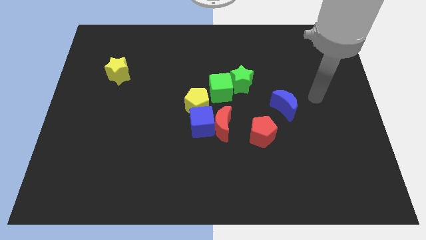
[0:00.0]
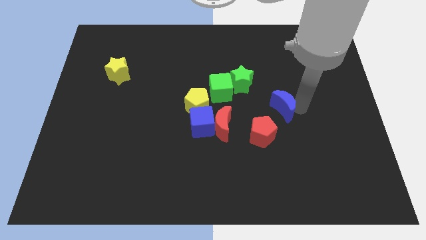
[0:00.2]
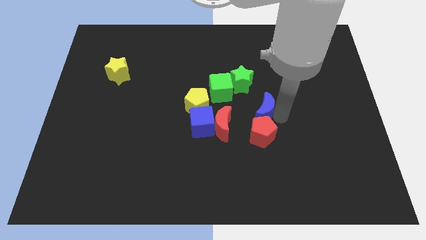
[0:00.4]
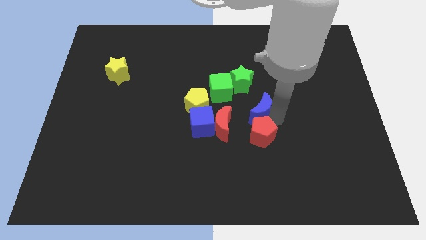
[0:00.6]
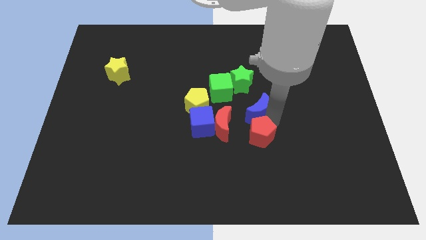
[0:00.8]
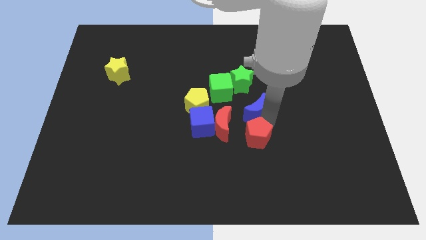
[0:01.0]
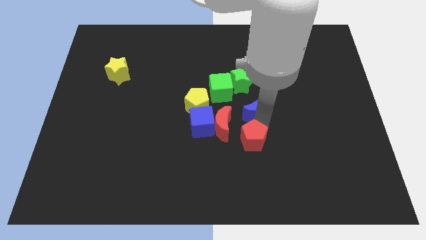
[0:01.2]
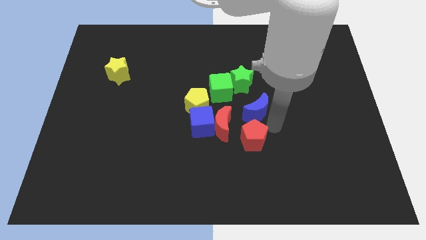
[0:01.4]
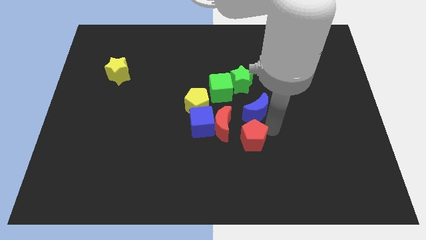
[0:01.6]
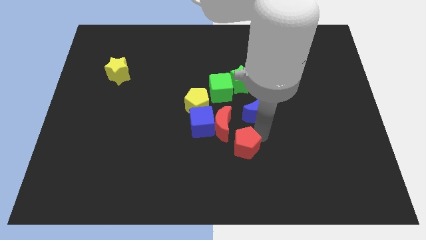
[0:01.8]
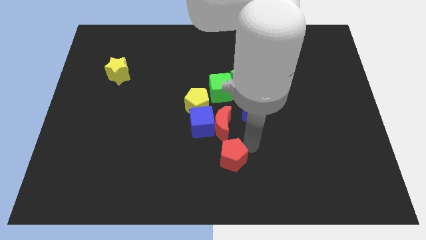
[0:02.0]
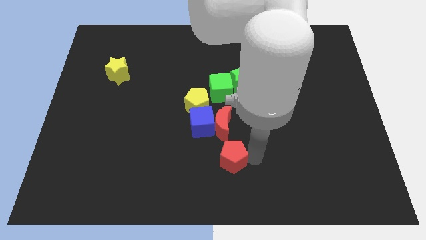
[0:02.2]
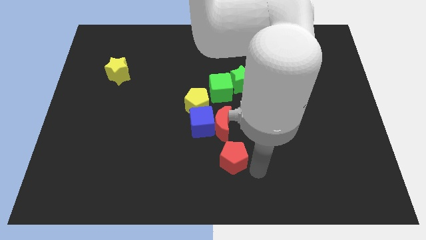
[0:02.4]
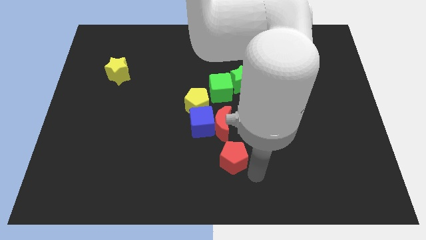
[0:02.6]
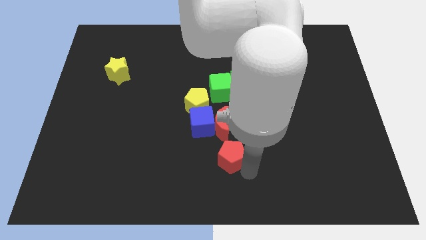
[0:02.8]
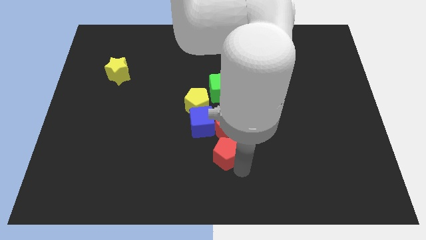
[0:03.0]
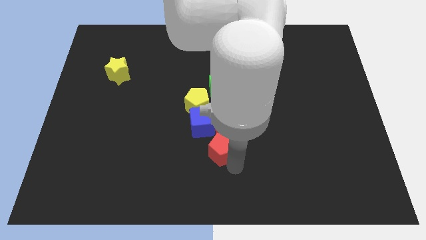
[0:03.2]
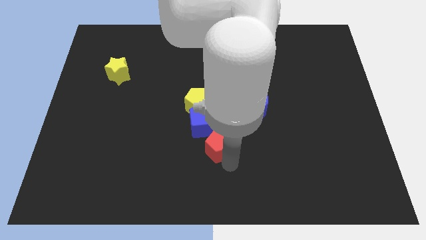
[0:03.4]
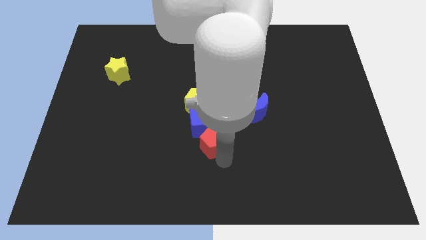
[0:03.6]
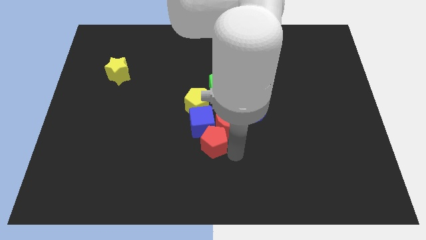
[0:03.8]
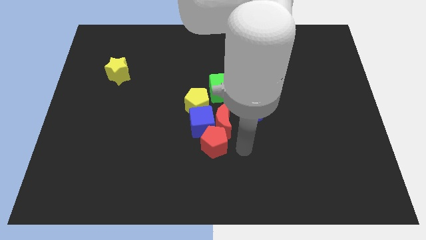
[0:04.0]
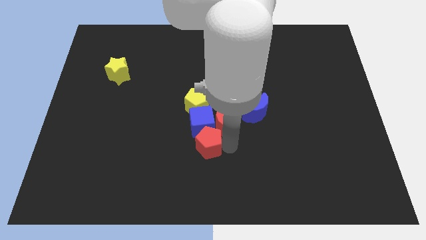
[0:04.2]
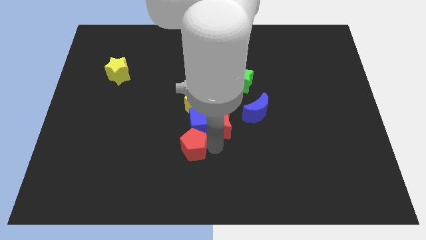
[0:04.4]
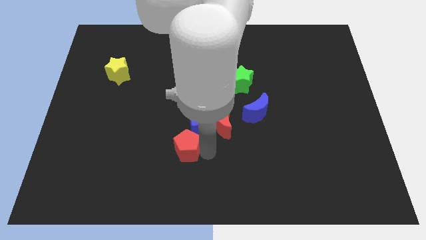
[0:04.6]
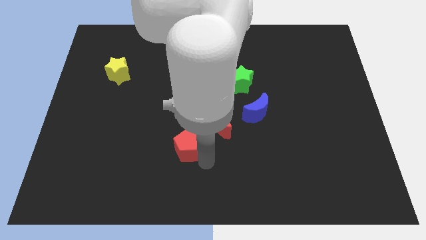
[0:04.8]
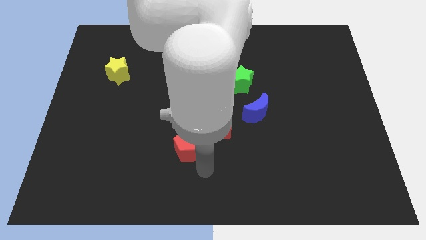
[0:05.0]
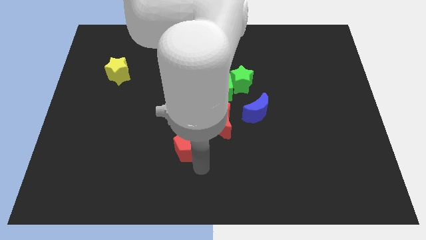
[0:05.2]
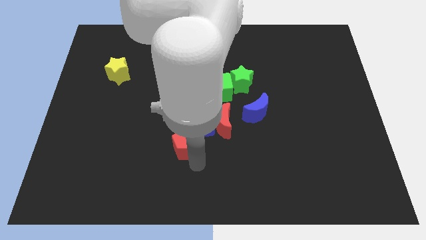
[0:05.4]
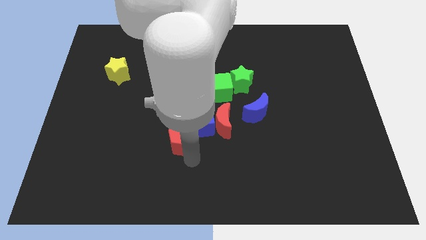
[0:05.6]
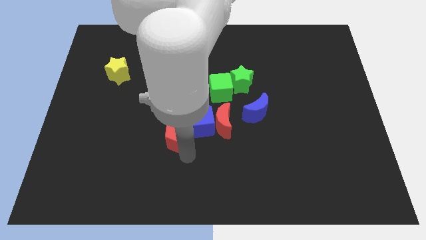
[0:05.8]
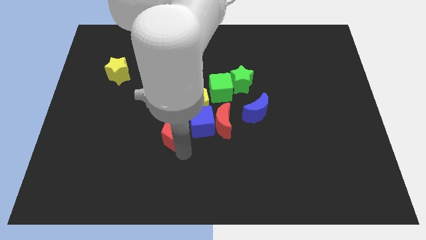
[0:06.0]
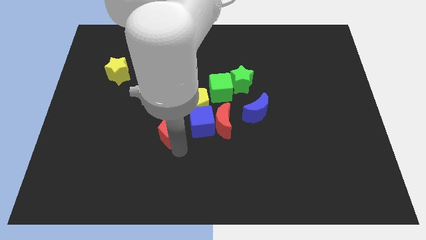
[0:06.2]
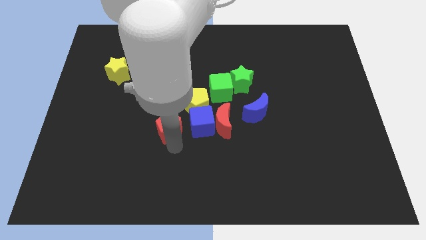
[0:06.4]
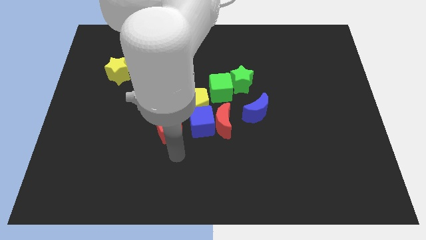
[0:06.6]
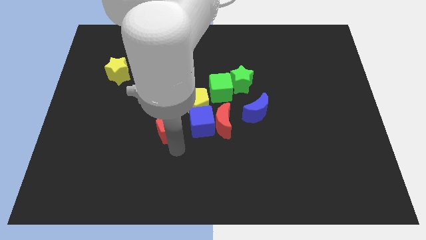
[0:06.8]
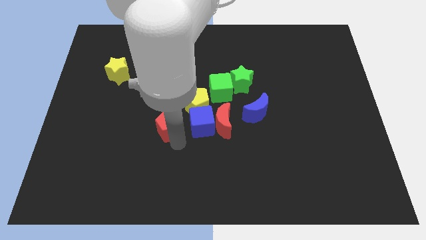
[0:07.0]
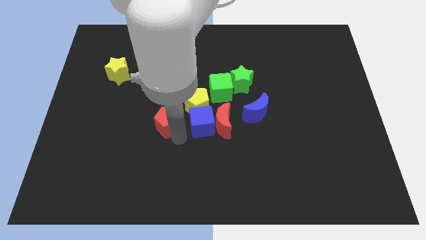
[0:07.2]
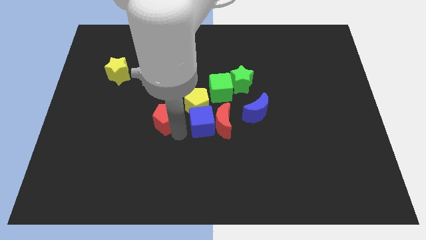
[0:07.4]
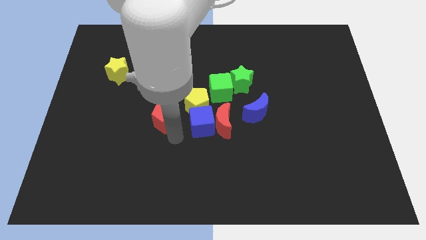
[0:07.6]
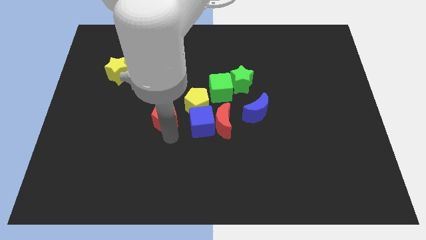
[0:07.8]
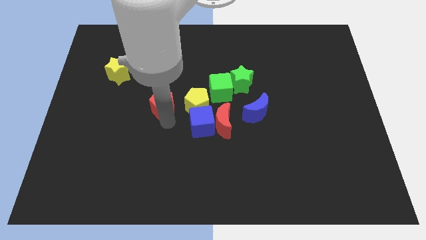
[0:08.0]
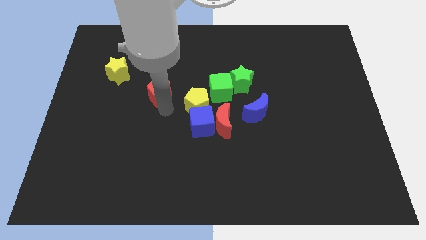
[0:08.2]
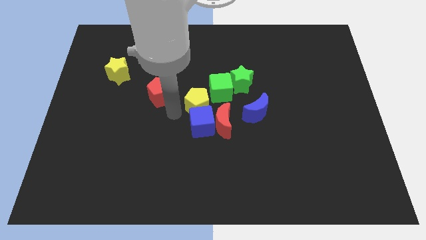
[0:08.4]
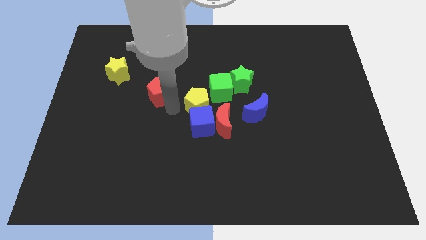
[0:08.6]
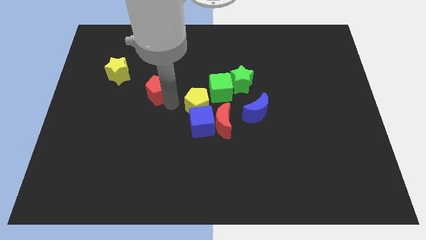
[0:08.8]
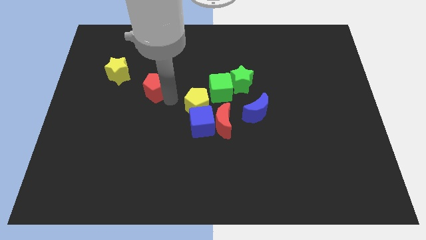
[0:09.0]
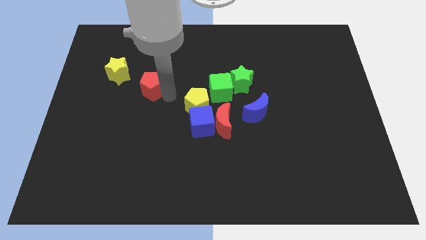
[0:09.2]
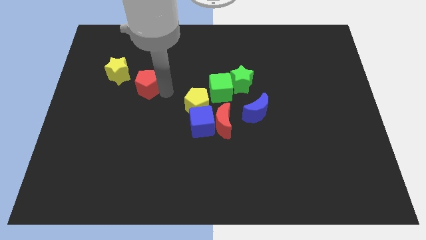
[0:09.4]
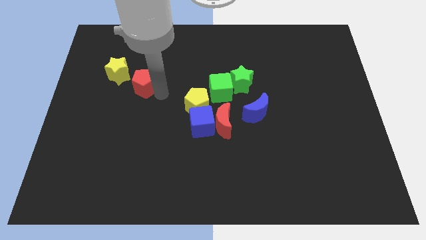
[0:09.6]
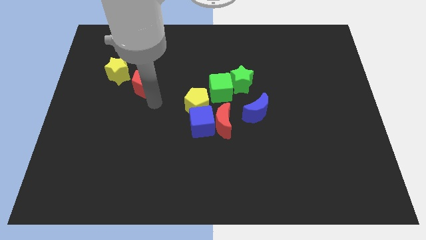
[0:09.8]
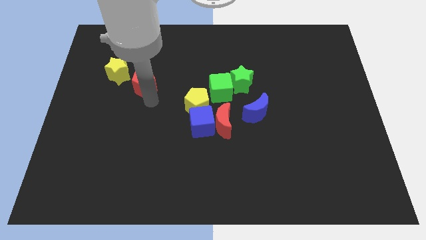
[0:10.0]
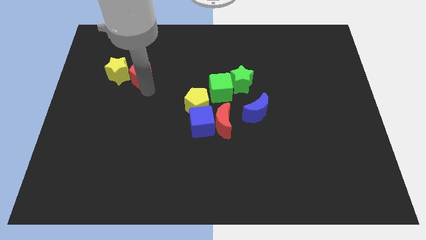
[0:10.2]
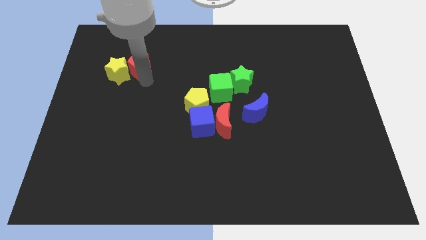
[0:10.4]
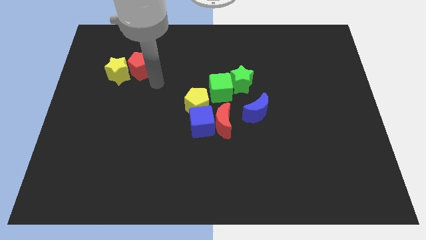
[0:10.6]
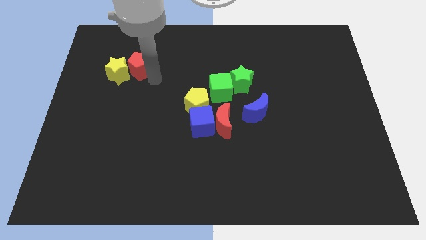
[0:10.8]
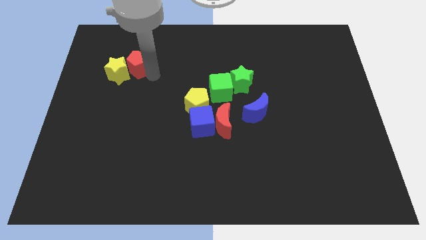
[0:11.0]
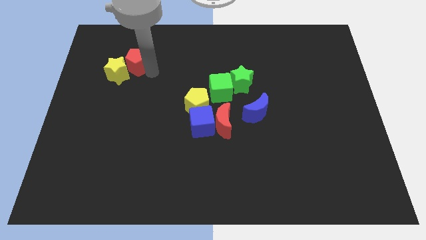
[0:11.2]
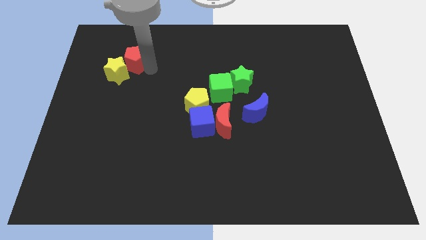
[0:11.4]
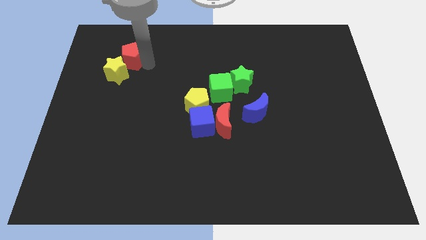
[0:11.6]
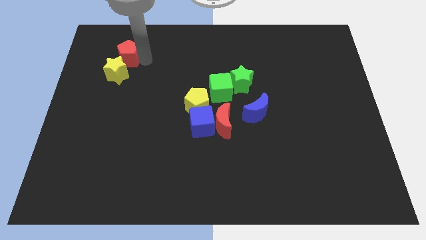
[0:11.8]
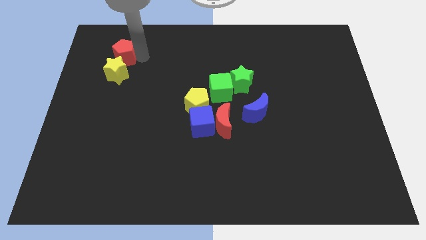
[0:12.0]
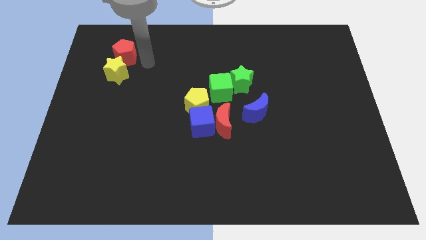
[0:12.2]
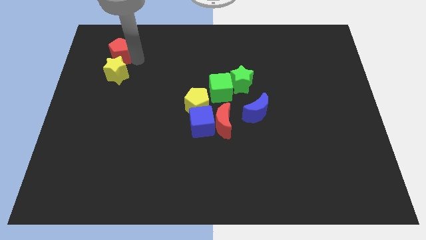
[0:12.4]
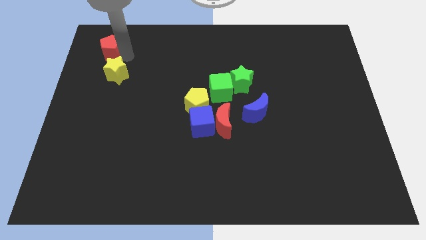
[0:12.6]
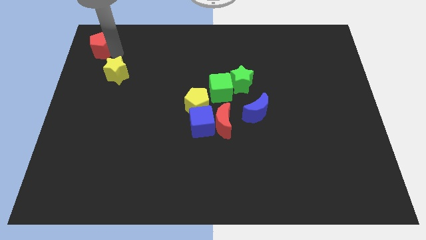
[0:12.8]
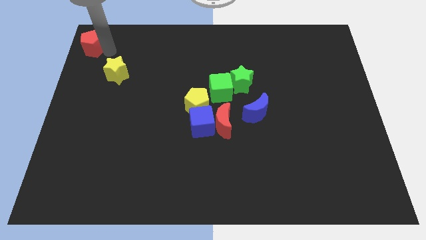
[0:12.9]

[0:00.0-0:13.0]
slide the red pentagon to the top left

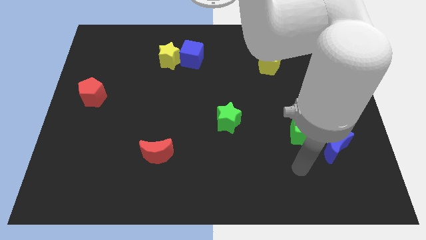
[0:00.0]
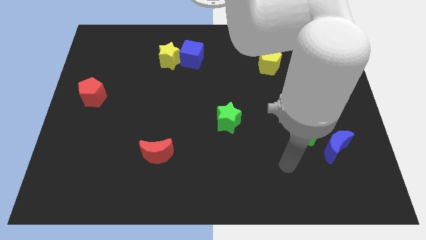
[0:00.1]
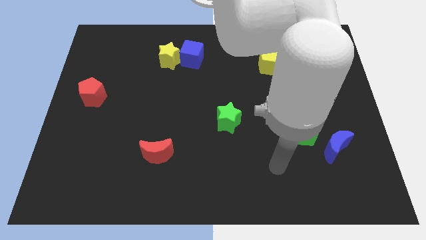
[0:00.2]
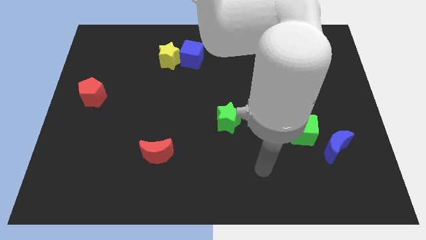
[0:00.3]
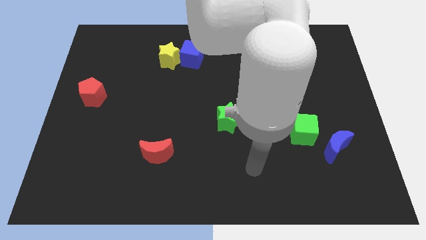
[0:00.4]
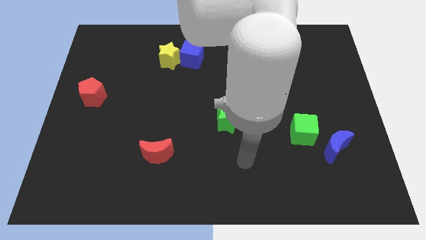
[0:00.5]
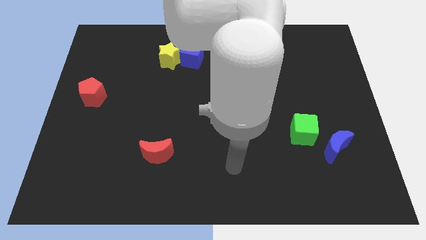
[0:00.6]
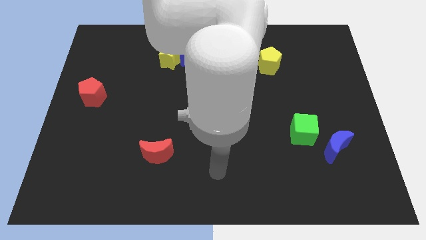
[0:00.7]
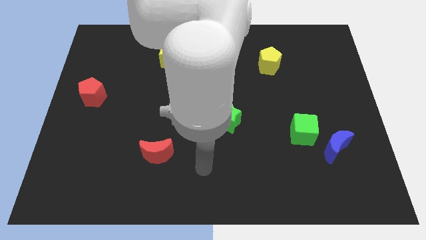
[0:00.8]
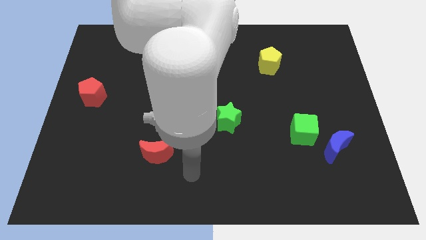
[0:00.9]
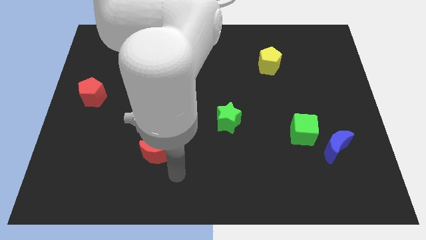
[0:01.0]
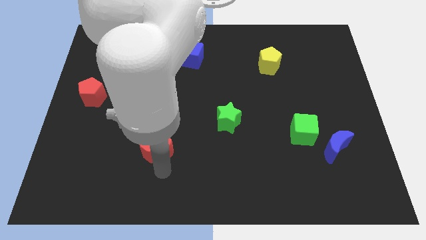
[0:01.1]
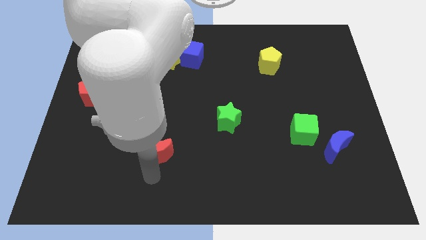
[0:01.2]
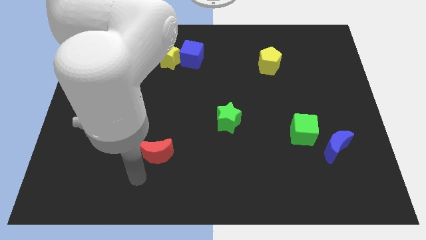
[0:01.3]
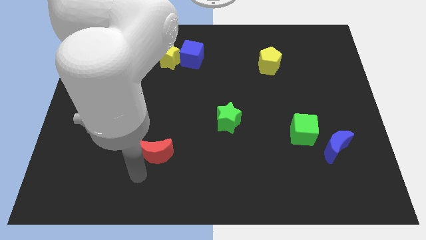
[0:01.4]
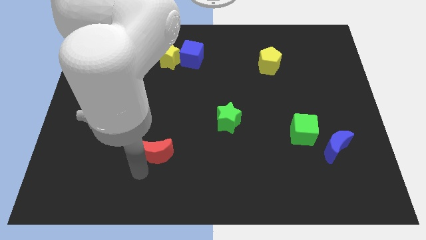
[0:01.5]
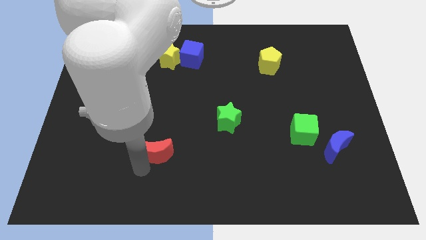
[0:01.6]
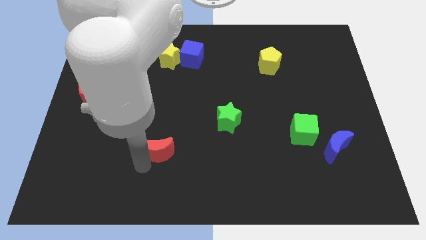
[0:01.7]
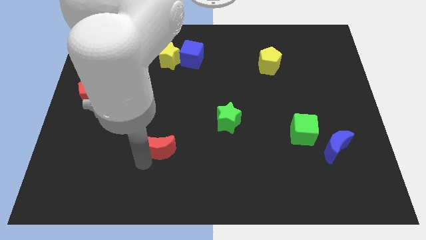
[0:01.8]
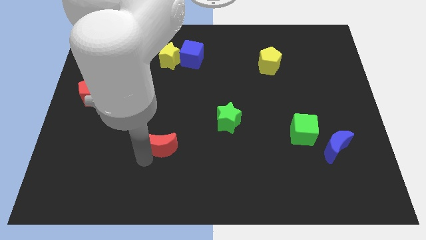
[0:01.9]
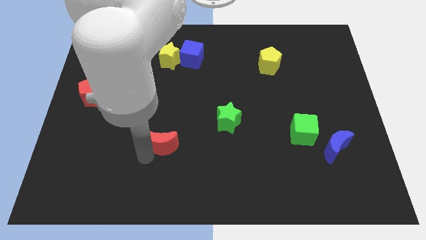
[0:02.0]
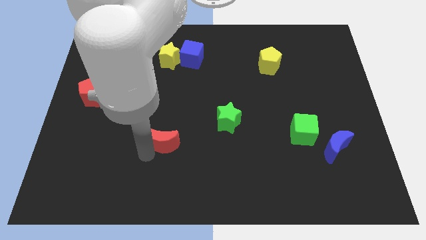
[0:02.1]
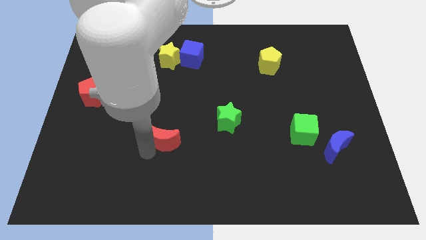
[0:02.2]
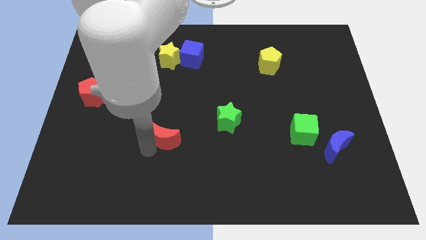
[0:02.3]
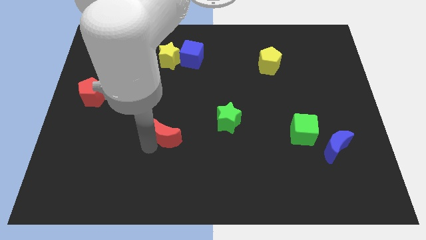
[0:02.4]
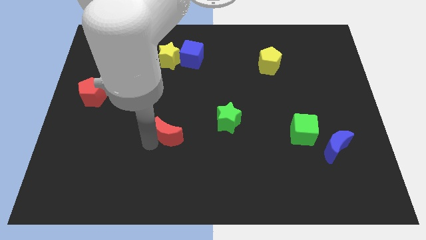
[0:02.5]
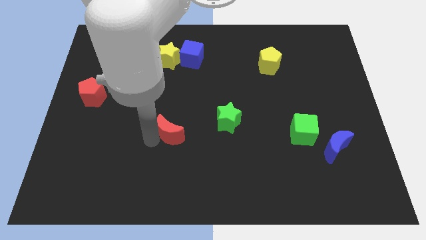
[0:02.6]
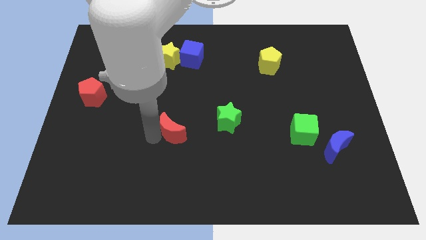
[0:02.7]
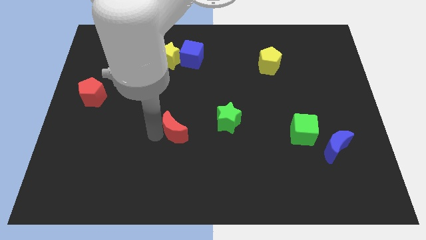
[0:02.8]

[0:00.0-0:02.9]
push the red moon to the middle of the board
